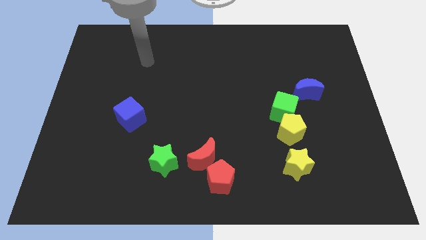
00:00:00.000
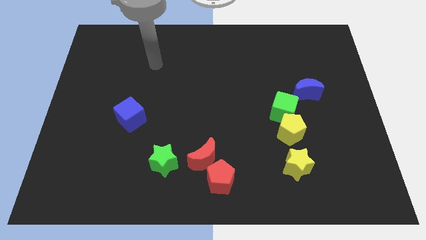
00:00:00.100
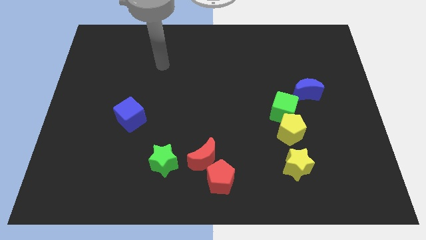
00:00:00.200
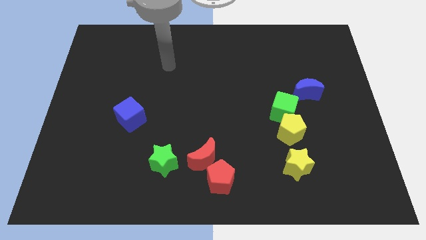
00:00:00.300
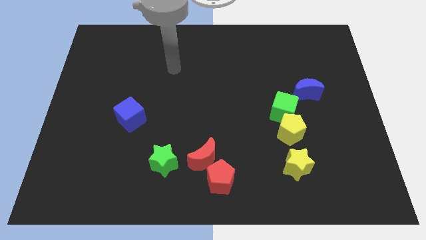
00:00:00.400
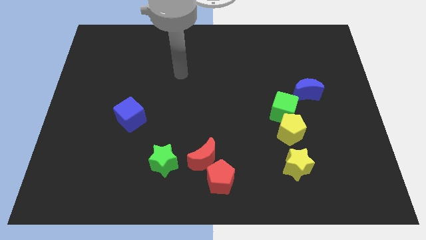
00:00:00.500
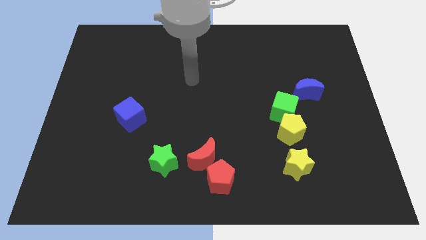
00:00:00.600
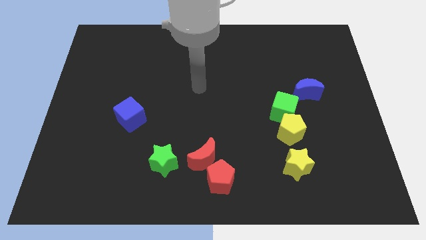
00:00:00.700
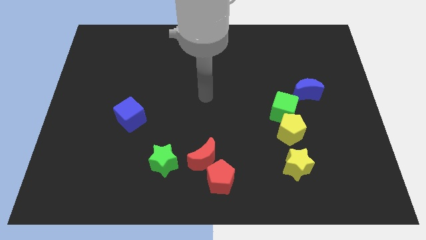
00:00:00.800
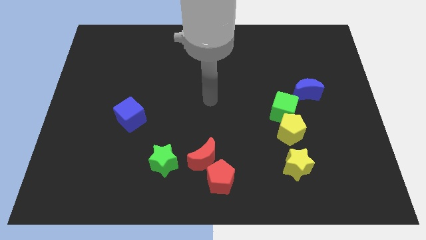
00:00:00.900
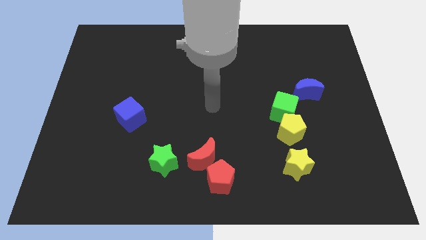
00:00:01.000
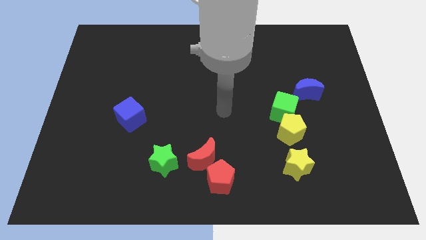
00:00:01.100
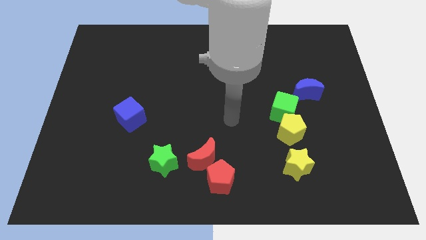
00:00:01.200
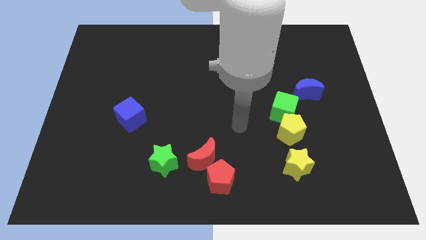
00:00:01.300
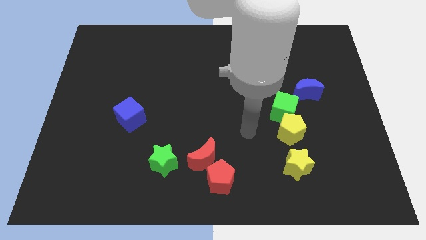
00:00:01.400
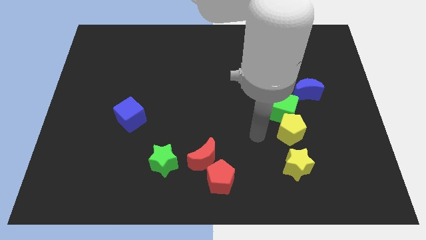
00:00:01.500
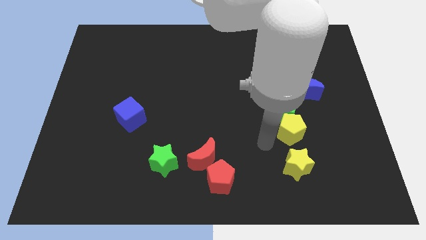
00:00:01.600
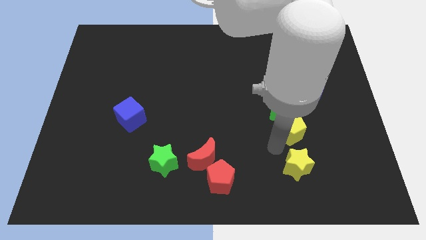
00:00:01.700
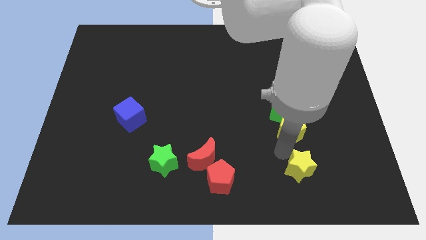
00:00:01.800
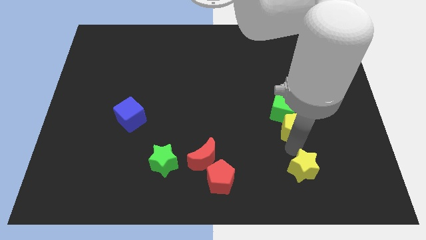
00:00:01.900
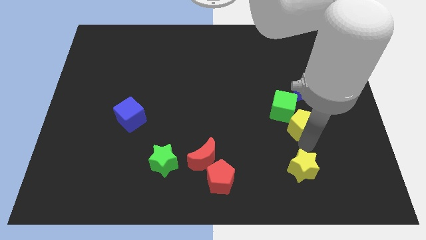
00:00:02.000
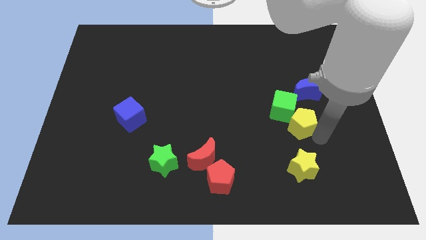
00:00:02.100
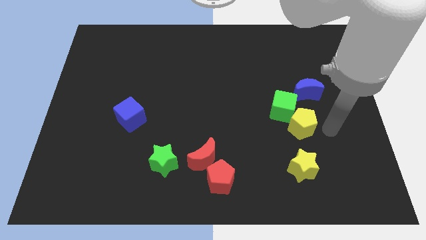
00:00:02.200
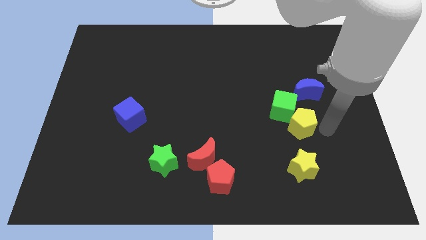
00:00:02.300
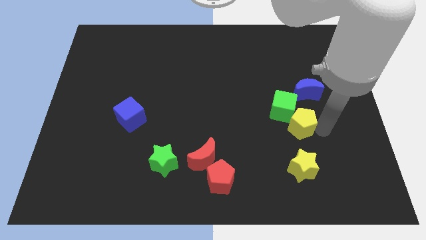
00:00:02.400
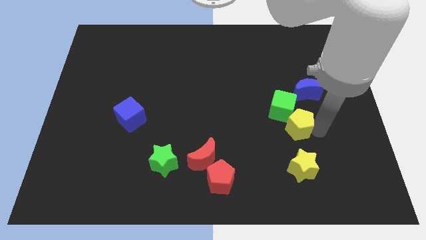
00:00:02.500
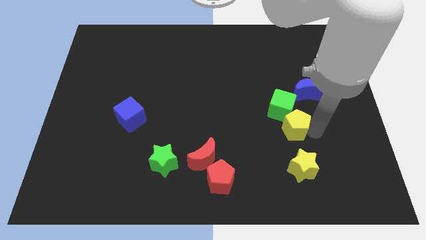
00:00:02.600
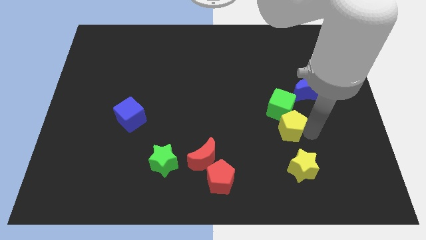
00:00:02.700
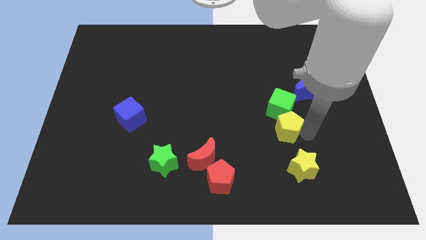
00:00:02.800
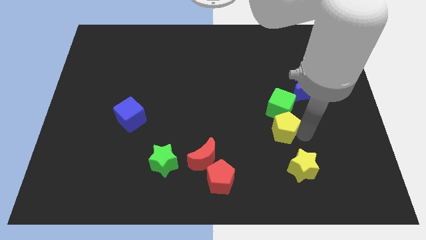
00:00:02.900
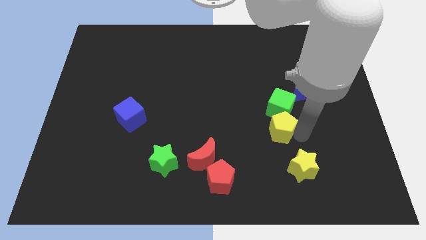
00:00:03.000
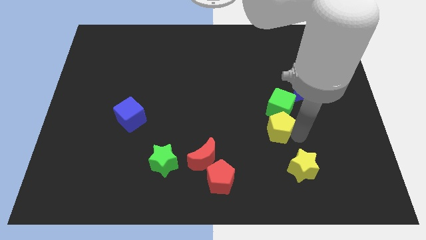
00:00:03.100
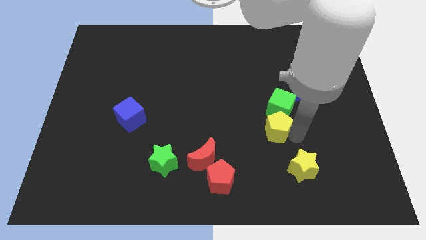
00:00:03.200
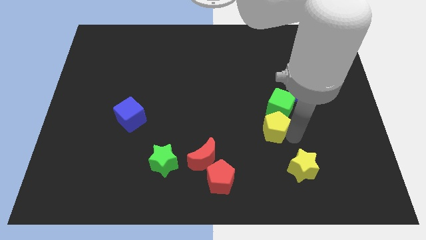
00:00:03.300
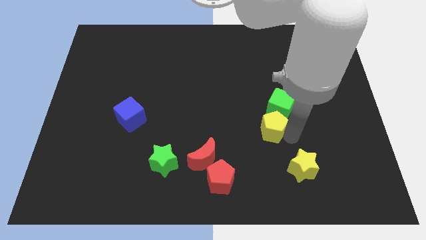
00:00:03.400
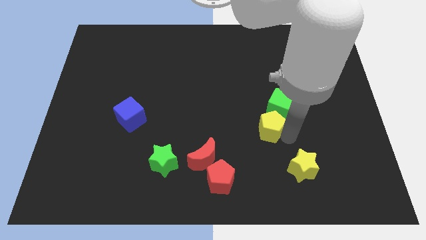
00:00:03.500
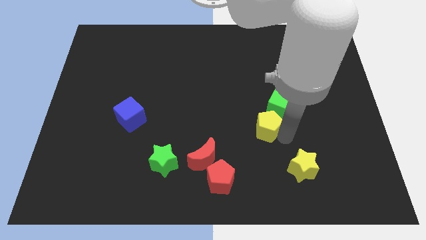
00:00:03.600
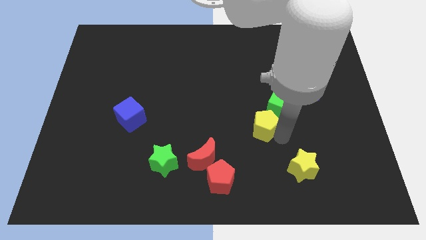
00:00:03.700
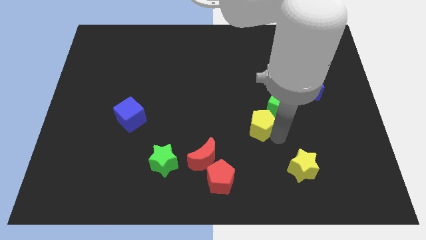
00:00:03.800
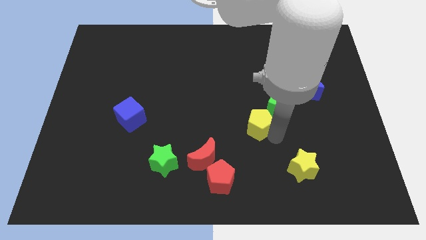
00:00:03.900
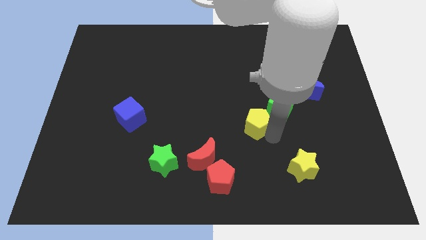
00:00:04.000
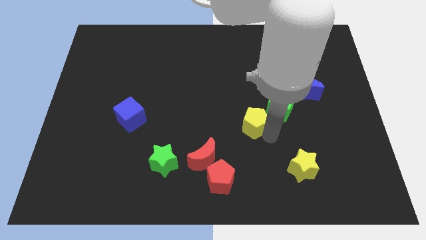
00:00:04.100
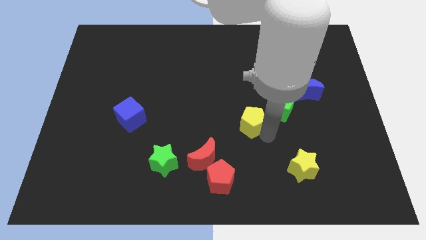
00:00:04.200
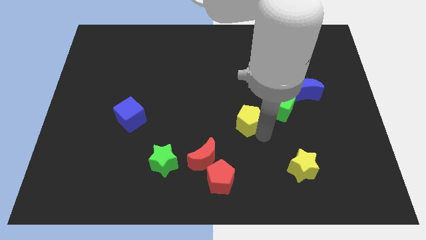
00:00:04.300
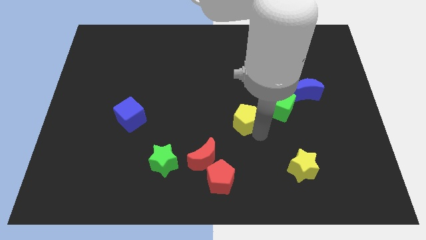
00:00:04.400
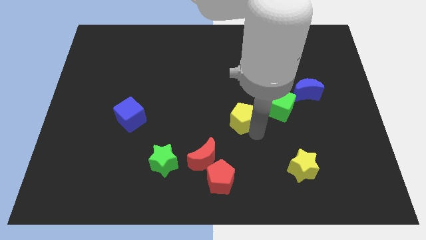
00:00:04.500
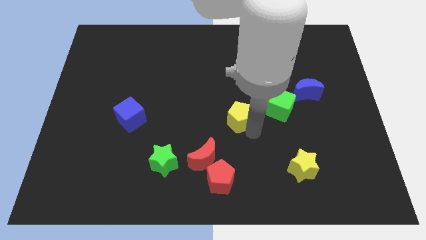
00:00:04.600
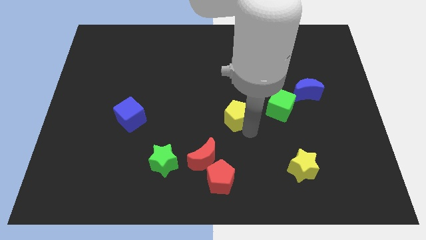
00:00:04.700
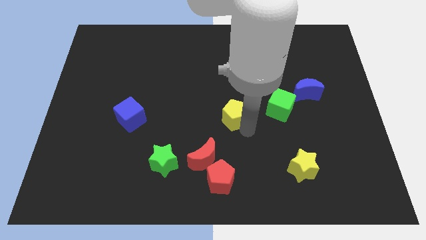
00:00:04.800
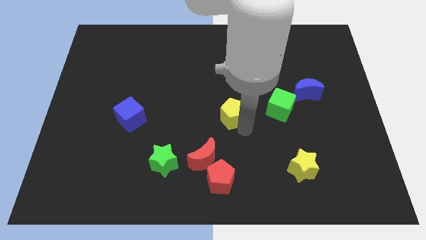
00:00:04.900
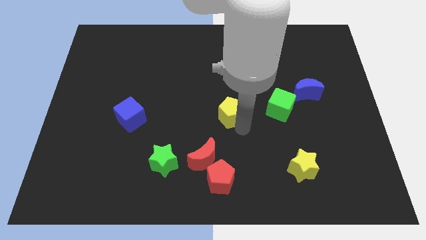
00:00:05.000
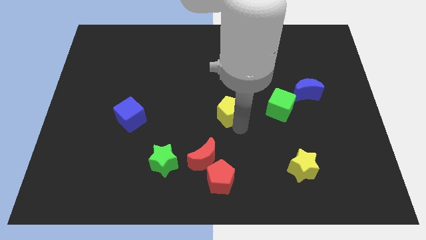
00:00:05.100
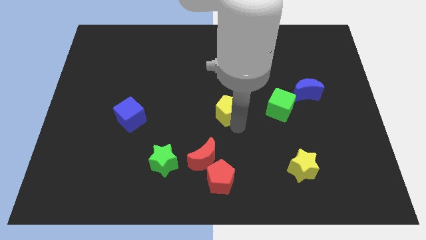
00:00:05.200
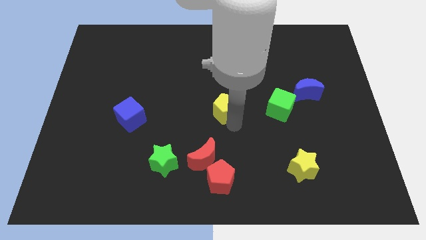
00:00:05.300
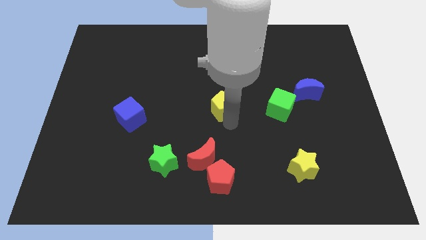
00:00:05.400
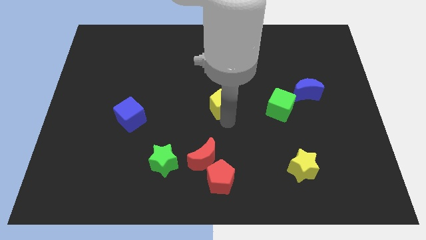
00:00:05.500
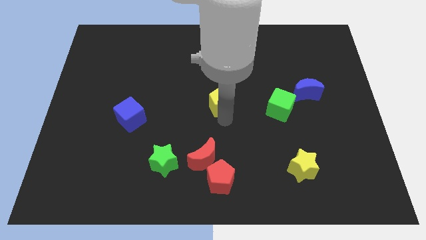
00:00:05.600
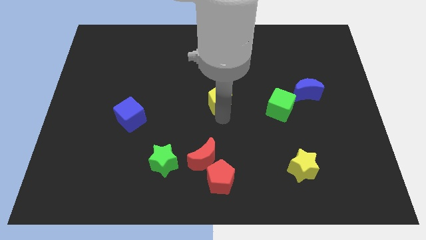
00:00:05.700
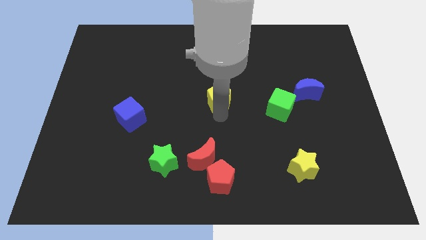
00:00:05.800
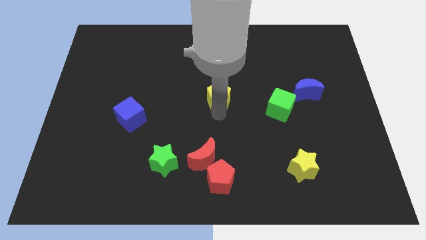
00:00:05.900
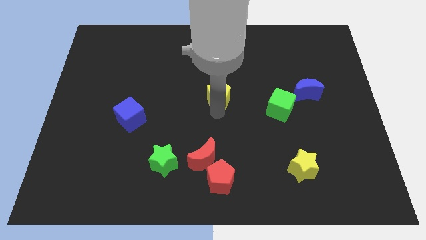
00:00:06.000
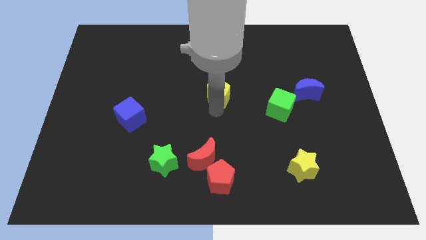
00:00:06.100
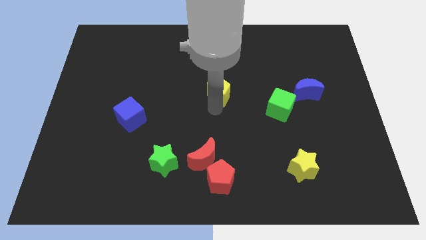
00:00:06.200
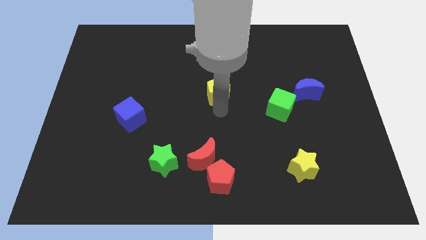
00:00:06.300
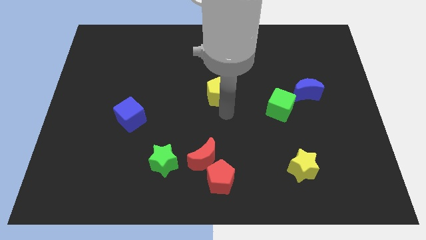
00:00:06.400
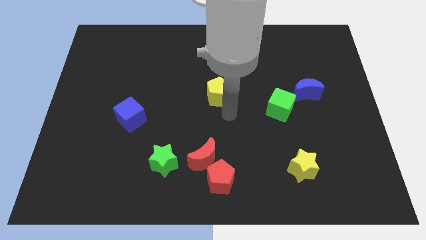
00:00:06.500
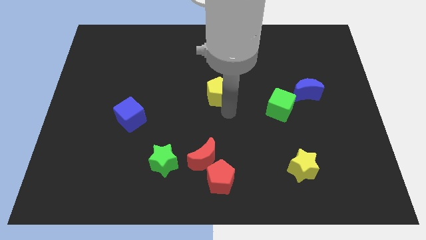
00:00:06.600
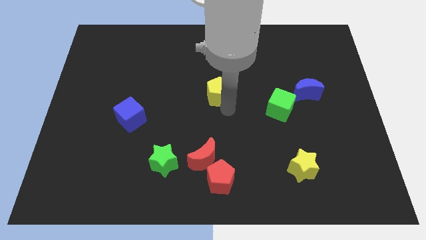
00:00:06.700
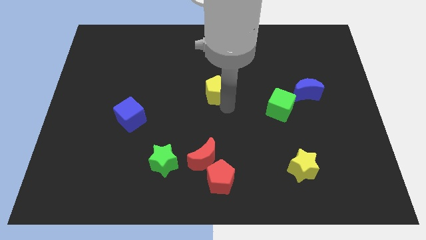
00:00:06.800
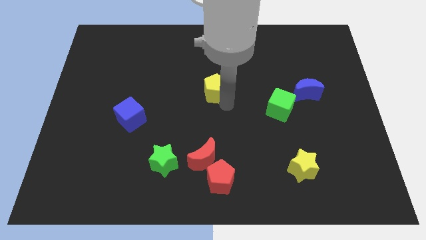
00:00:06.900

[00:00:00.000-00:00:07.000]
move the yellow pentagon upwards and to the left diagonally

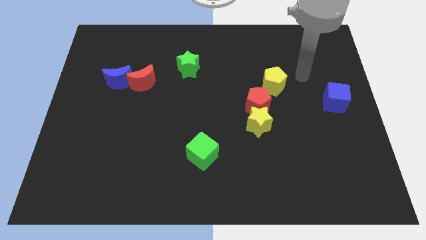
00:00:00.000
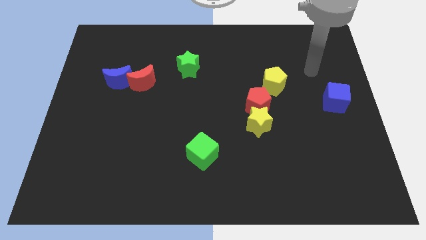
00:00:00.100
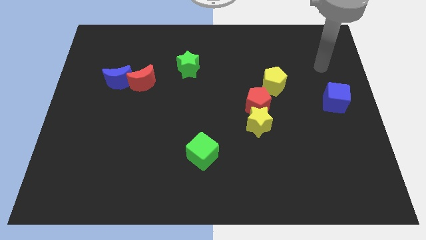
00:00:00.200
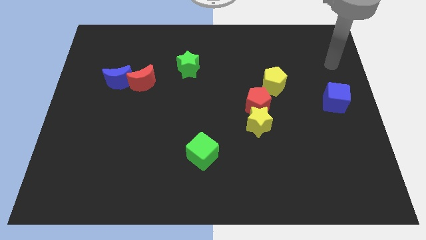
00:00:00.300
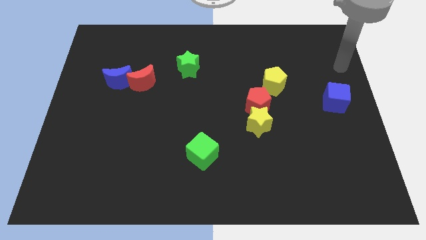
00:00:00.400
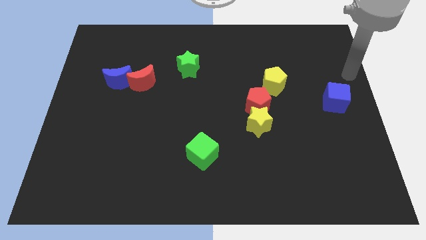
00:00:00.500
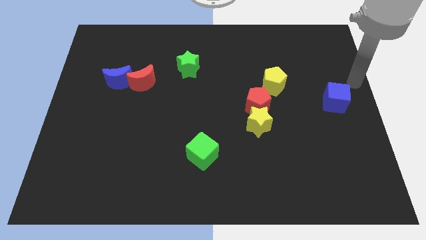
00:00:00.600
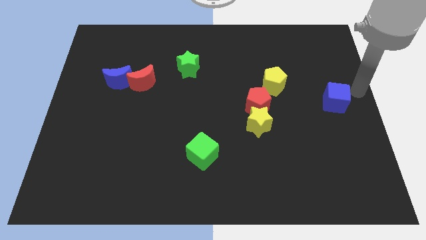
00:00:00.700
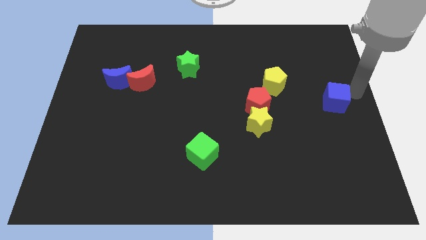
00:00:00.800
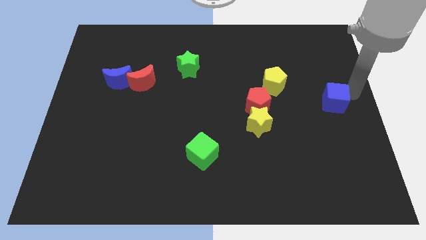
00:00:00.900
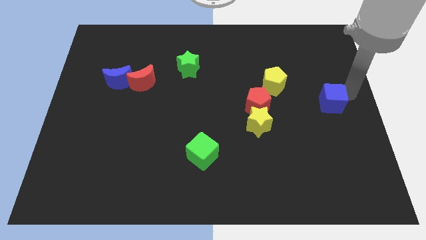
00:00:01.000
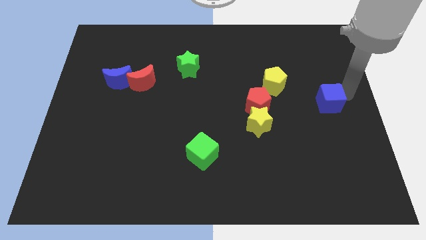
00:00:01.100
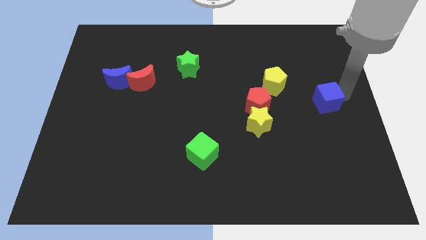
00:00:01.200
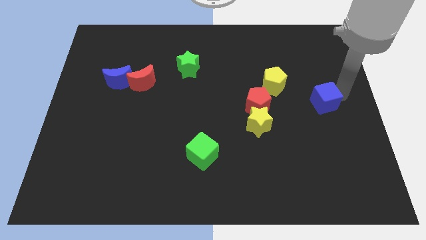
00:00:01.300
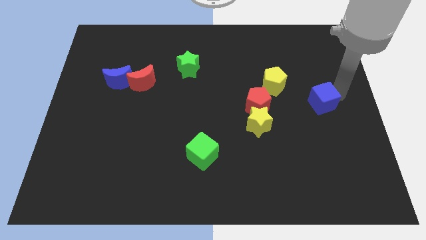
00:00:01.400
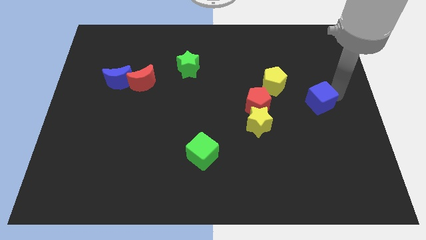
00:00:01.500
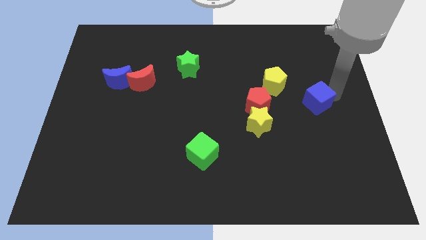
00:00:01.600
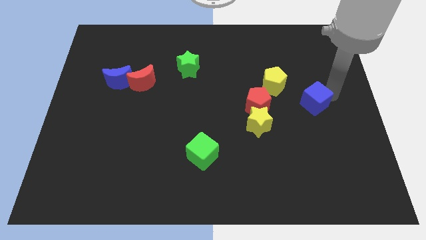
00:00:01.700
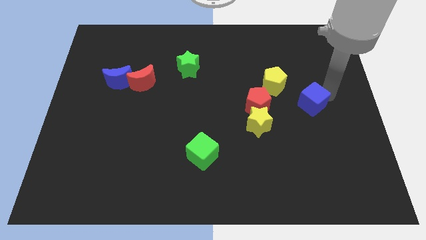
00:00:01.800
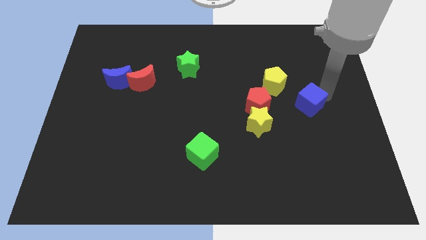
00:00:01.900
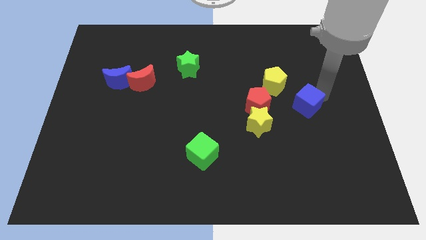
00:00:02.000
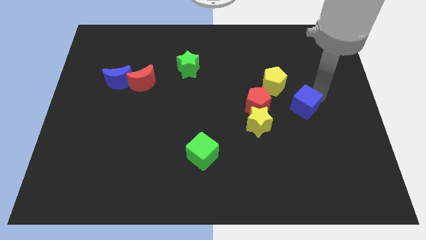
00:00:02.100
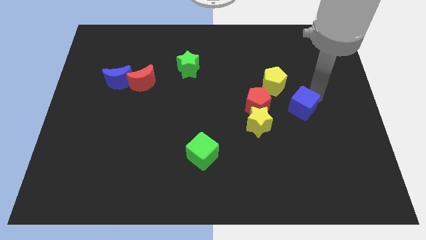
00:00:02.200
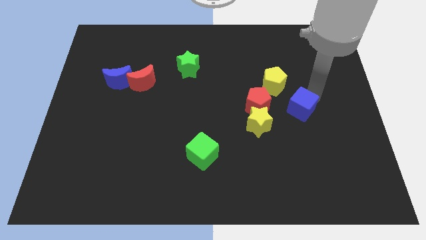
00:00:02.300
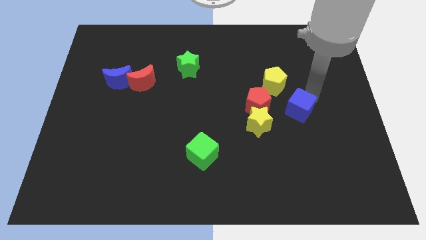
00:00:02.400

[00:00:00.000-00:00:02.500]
slightly move the blue cube down and to the left
